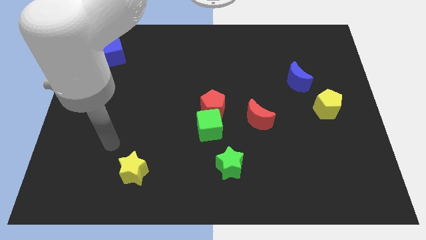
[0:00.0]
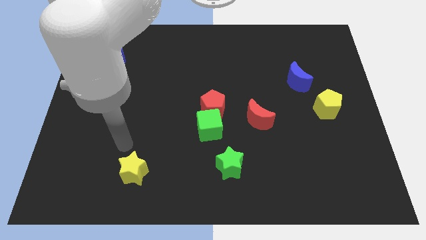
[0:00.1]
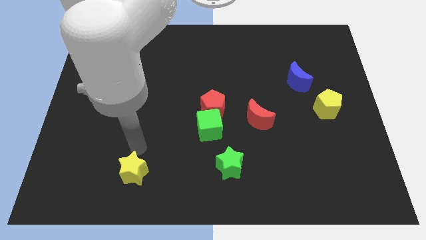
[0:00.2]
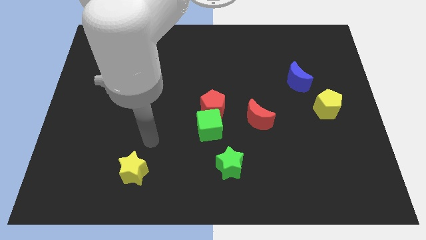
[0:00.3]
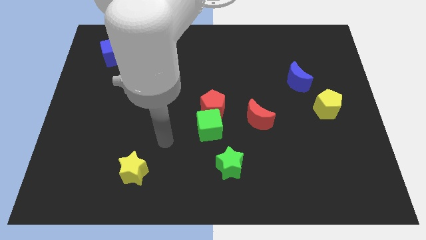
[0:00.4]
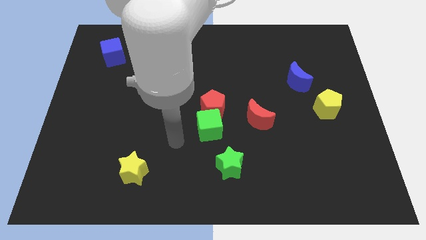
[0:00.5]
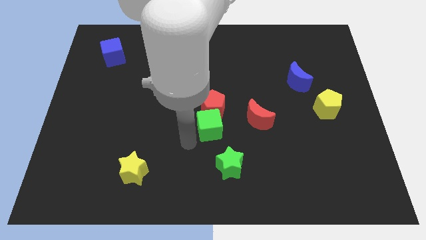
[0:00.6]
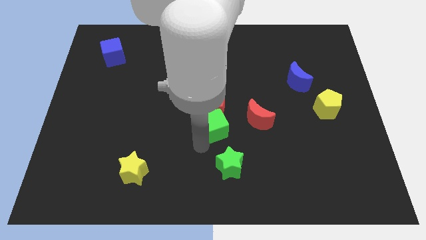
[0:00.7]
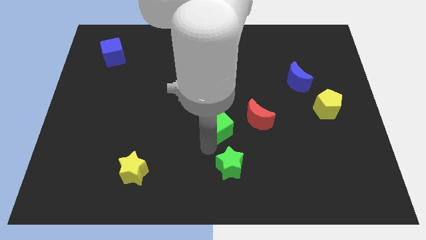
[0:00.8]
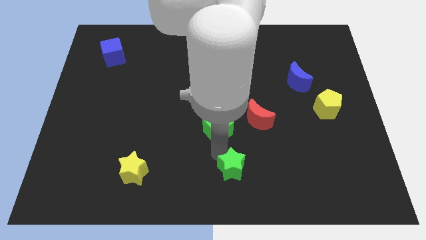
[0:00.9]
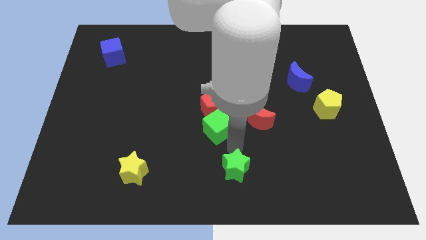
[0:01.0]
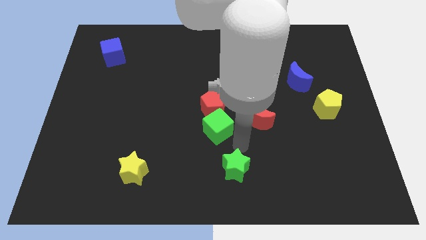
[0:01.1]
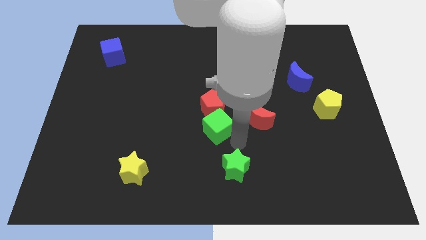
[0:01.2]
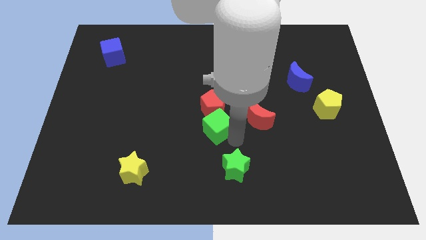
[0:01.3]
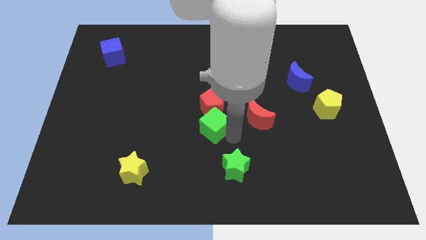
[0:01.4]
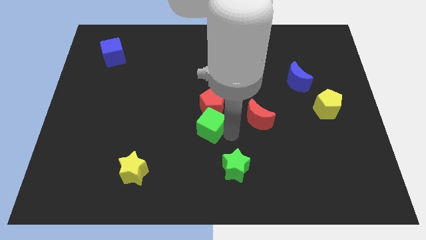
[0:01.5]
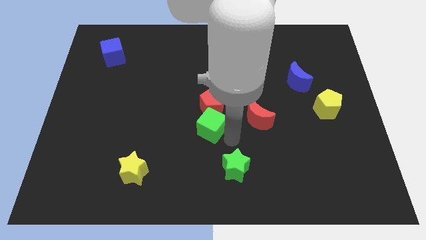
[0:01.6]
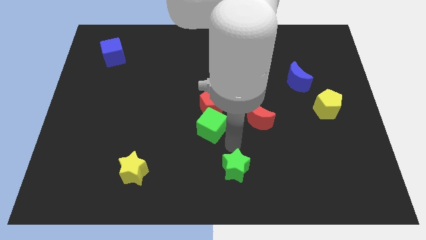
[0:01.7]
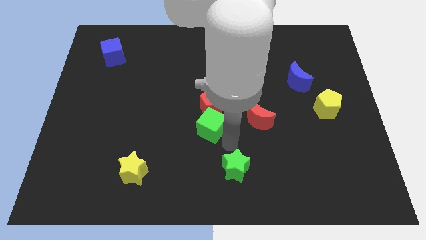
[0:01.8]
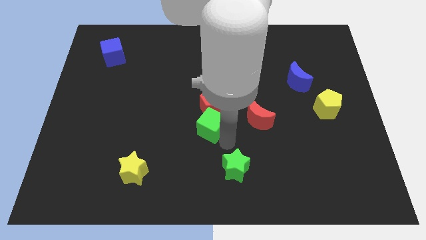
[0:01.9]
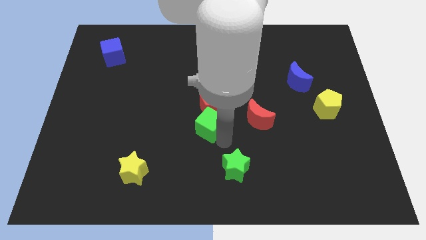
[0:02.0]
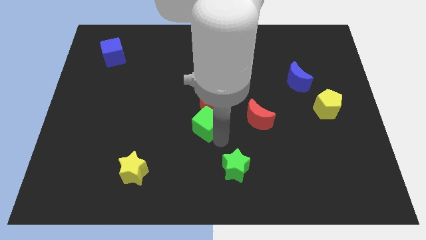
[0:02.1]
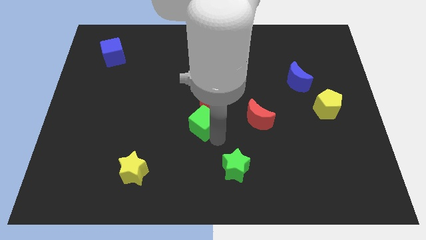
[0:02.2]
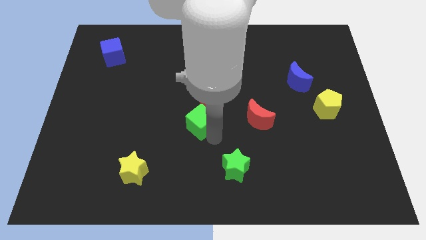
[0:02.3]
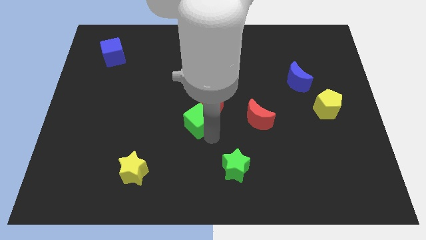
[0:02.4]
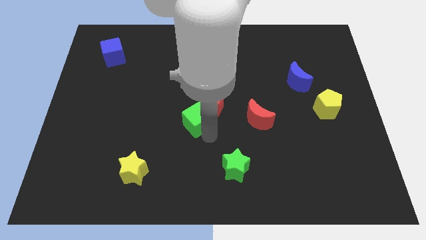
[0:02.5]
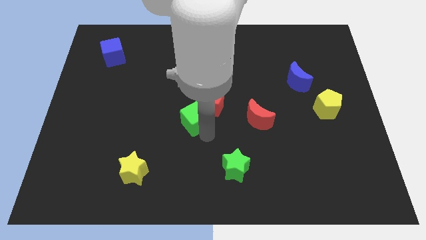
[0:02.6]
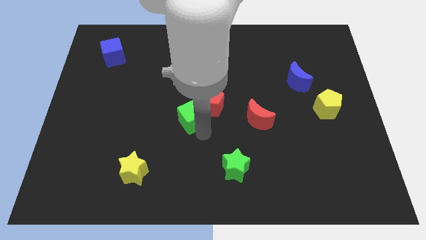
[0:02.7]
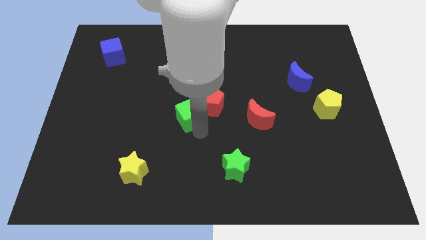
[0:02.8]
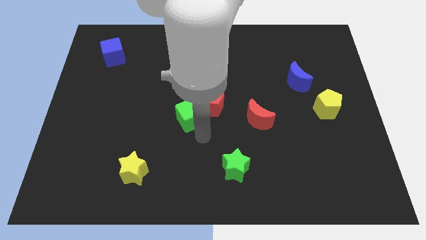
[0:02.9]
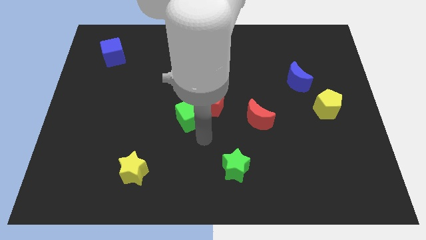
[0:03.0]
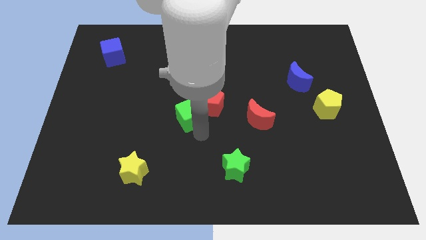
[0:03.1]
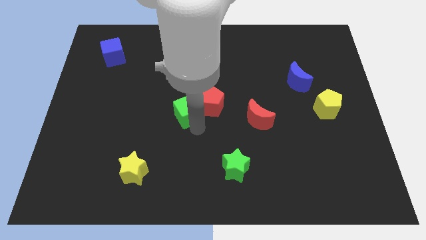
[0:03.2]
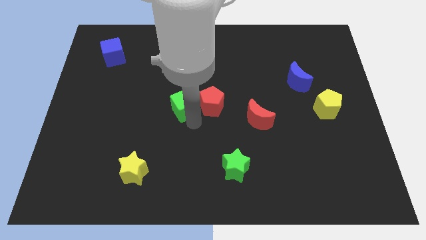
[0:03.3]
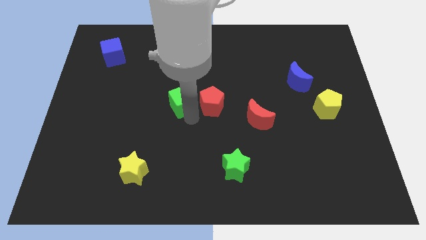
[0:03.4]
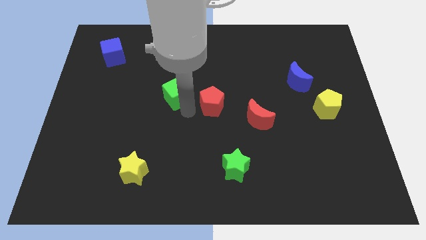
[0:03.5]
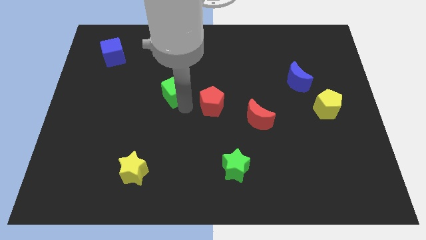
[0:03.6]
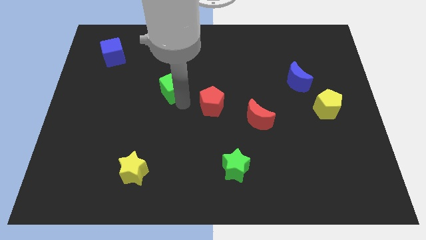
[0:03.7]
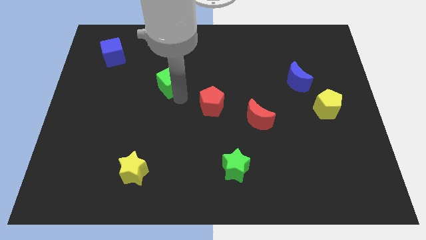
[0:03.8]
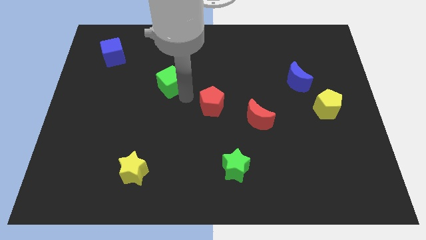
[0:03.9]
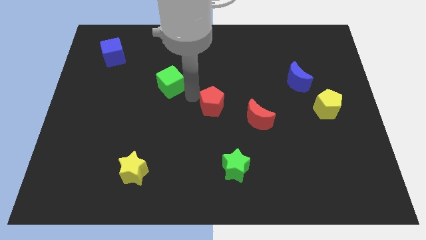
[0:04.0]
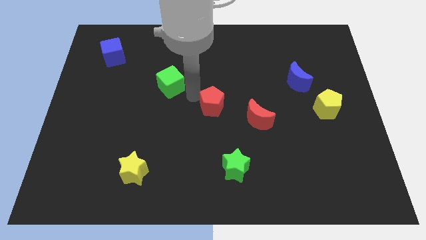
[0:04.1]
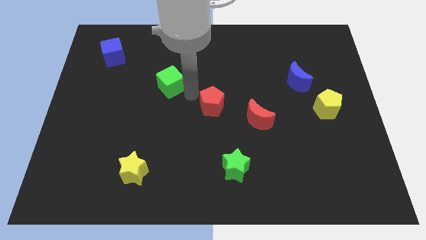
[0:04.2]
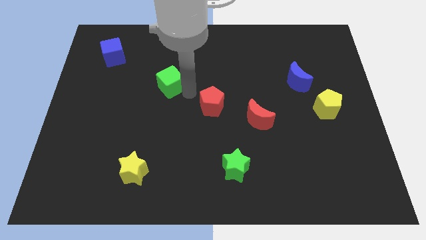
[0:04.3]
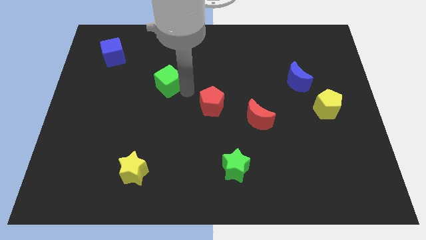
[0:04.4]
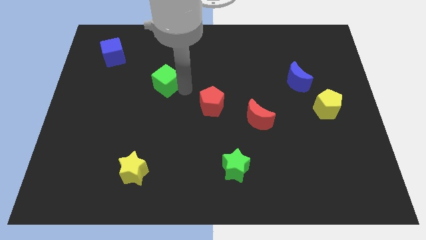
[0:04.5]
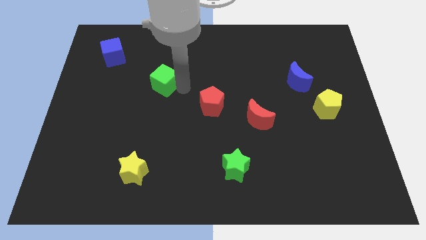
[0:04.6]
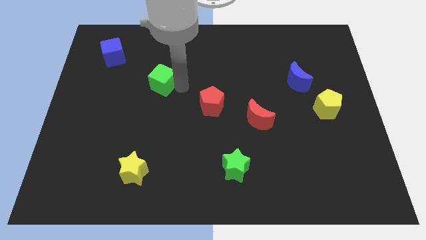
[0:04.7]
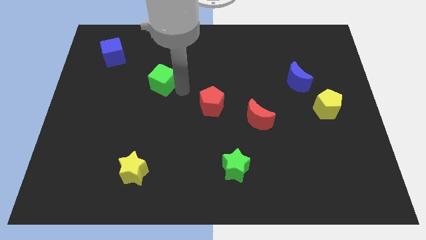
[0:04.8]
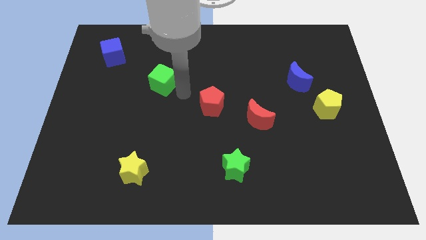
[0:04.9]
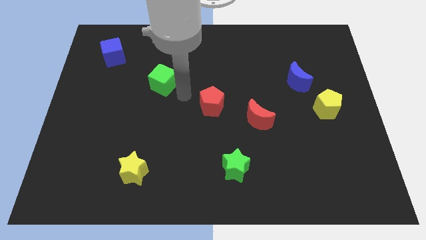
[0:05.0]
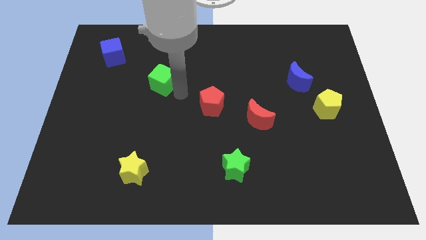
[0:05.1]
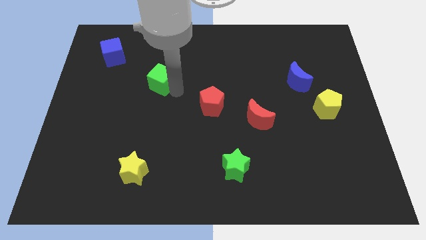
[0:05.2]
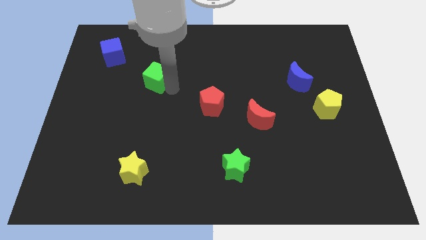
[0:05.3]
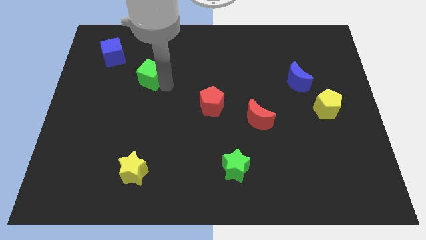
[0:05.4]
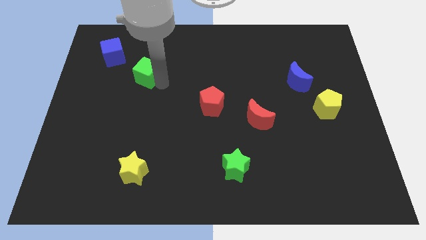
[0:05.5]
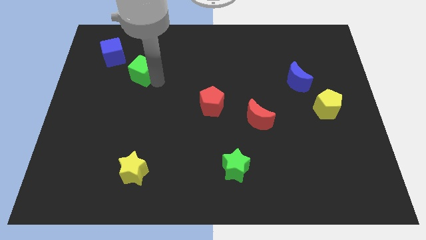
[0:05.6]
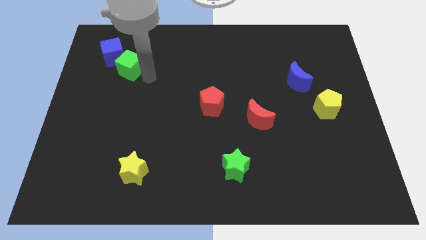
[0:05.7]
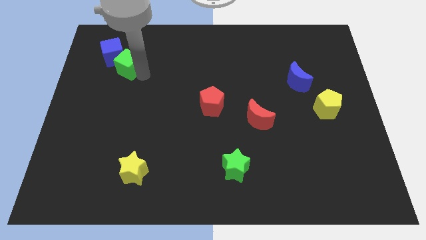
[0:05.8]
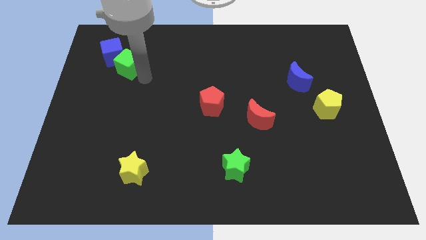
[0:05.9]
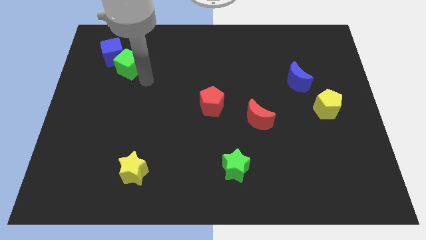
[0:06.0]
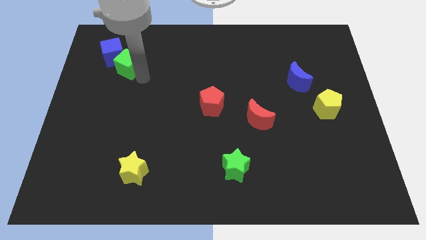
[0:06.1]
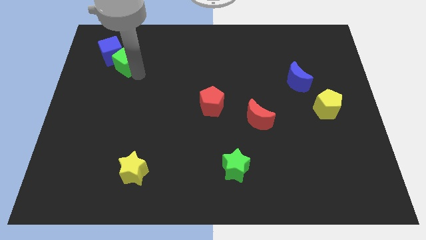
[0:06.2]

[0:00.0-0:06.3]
slide the green cube to the blue cube

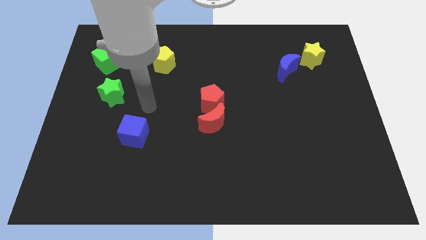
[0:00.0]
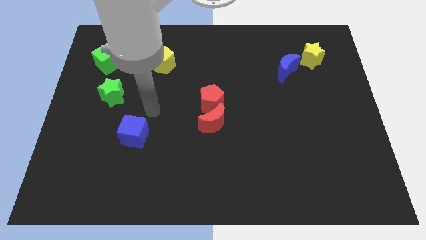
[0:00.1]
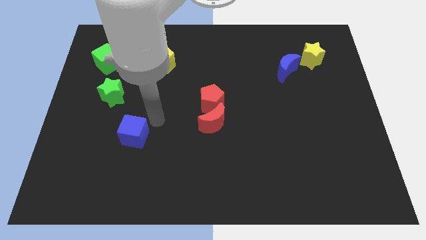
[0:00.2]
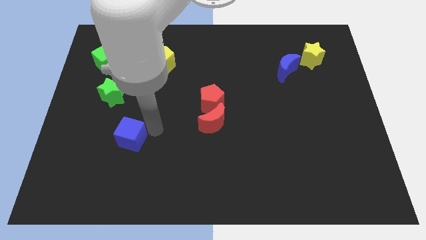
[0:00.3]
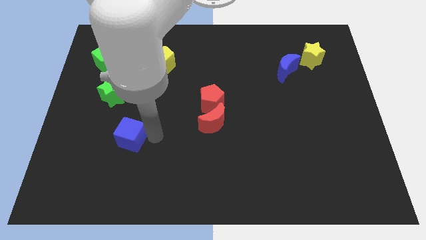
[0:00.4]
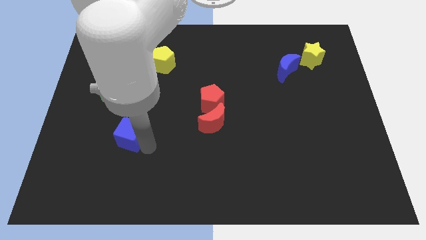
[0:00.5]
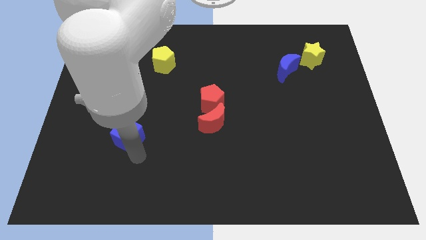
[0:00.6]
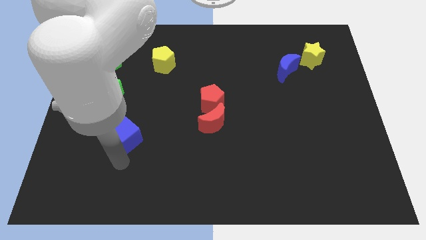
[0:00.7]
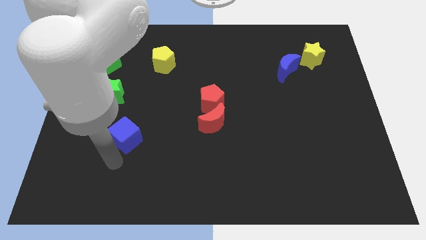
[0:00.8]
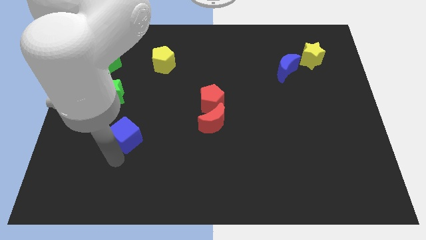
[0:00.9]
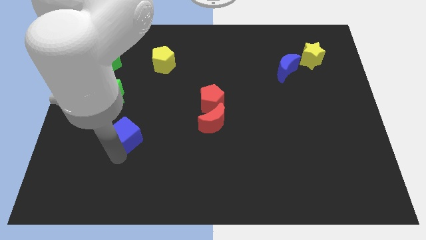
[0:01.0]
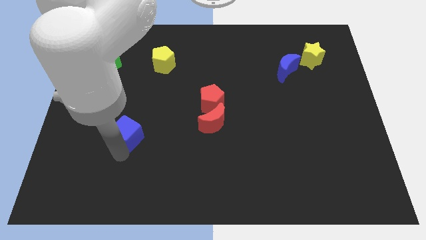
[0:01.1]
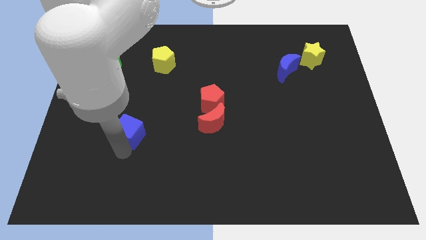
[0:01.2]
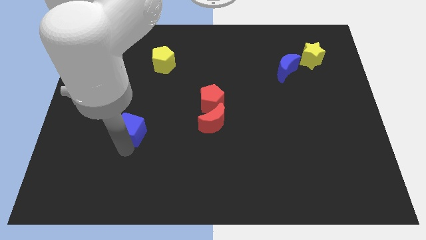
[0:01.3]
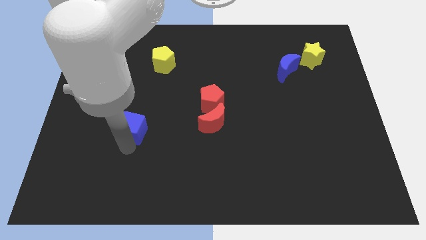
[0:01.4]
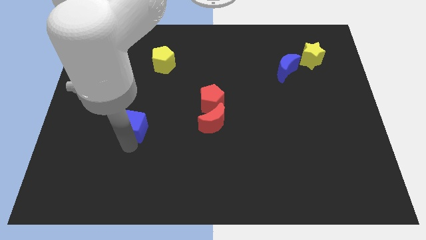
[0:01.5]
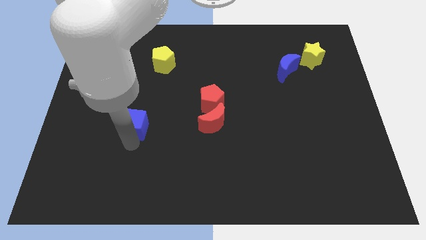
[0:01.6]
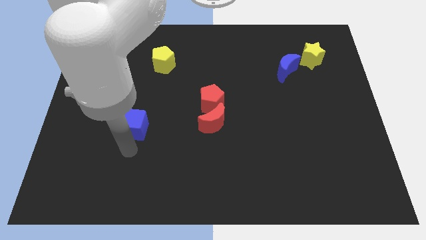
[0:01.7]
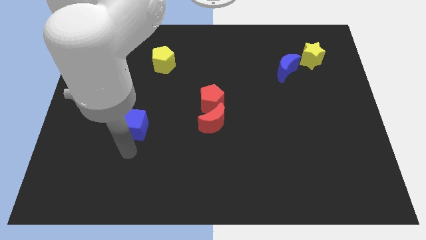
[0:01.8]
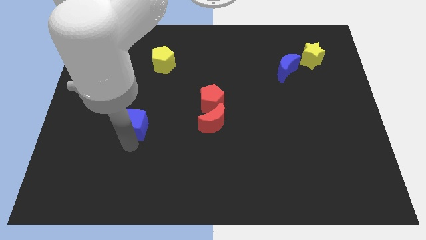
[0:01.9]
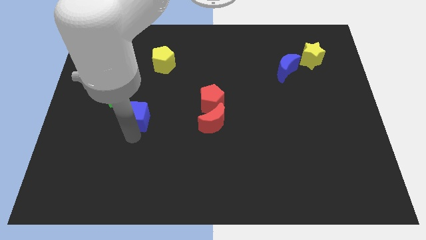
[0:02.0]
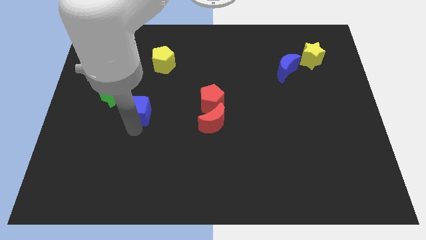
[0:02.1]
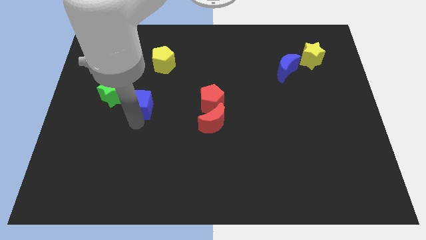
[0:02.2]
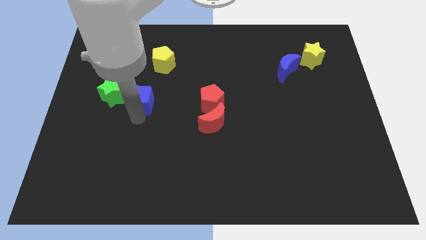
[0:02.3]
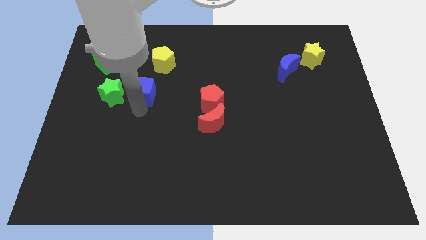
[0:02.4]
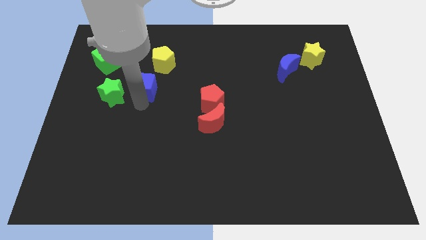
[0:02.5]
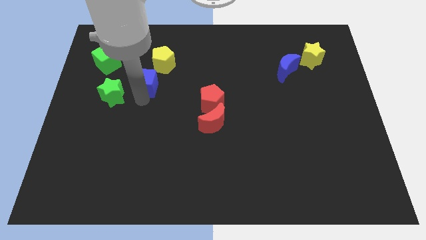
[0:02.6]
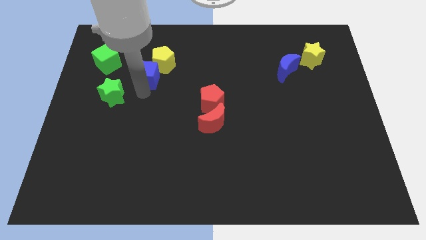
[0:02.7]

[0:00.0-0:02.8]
push the blue cube towards the yellow pentagon
